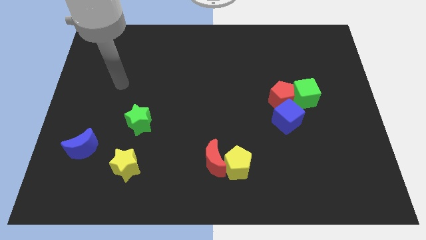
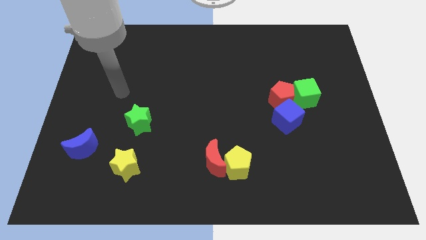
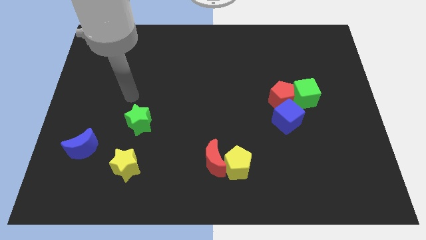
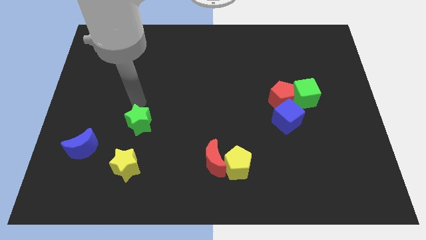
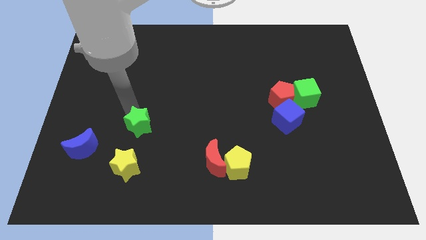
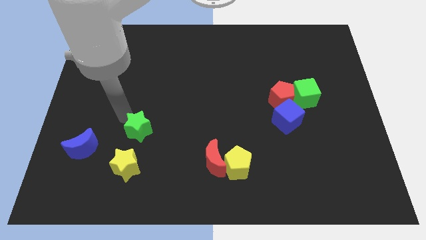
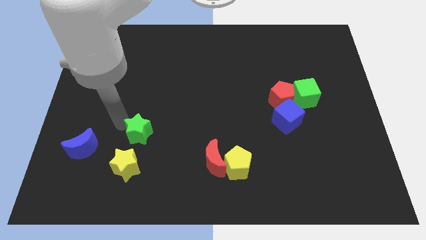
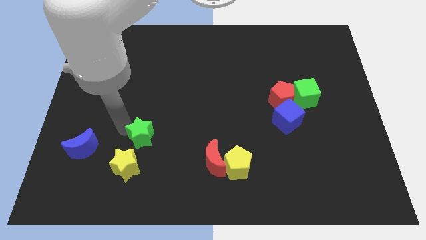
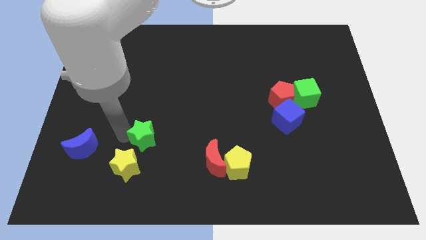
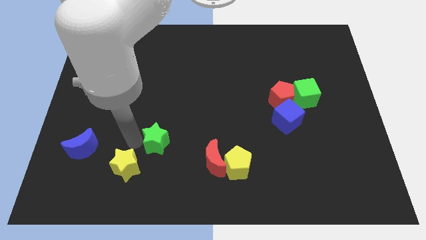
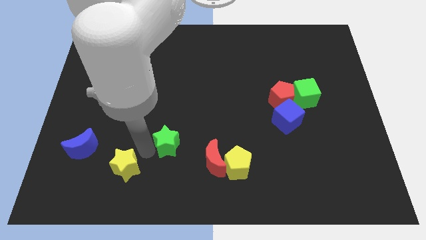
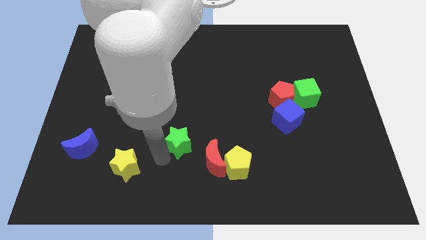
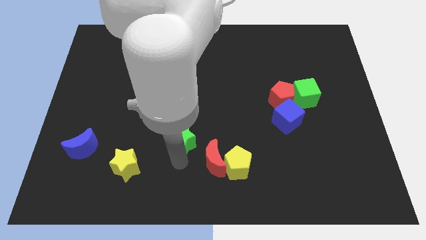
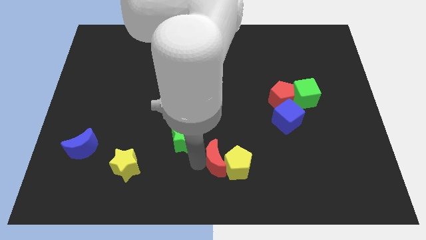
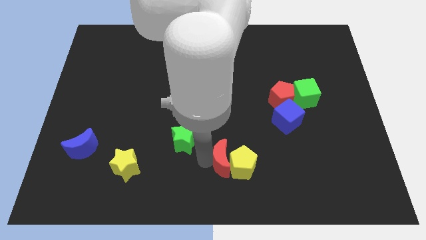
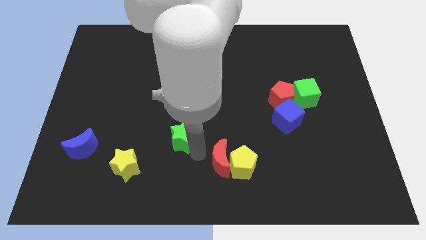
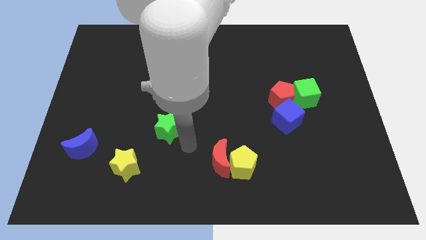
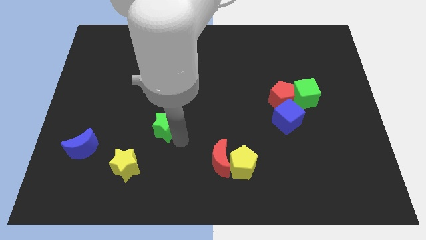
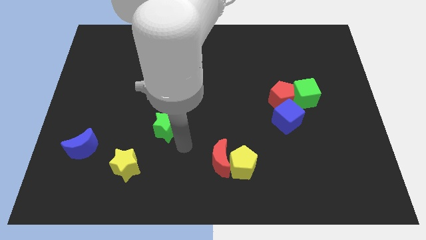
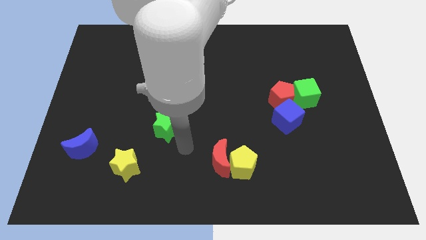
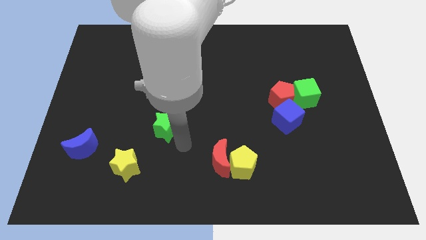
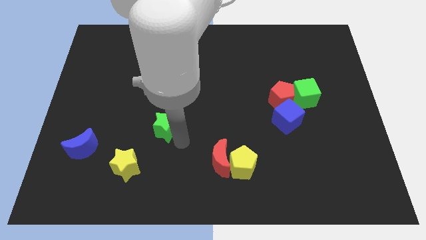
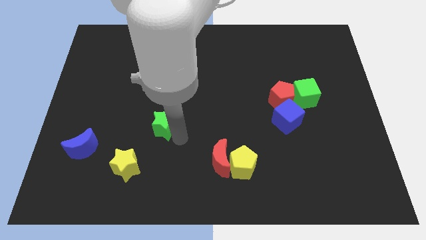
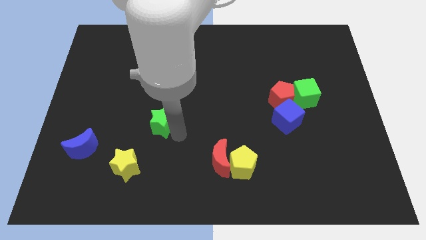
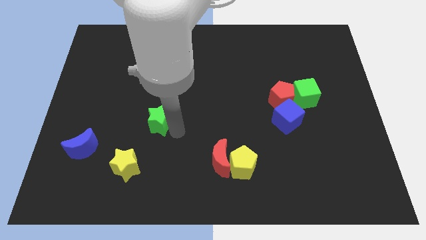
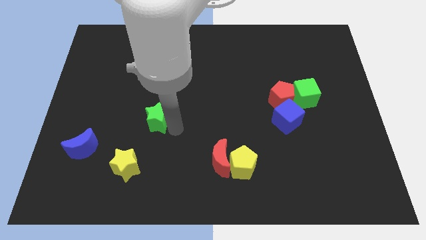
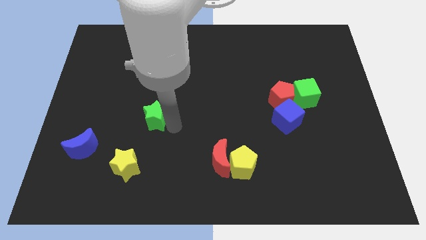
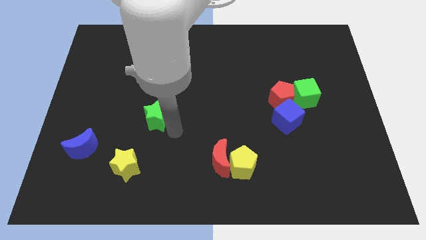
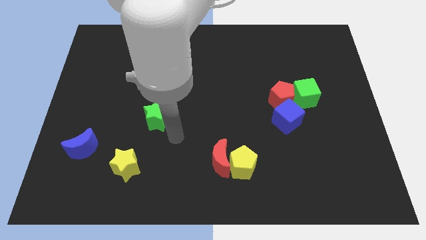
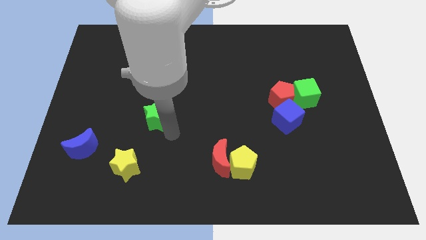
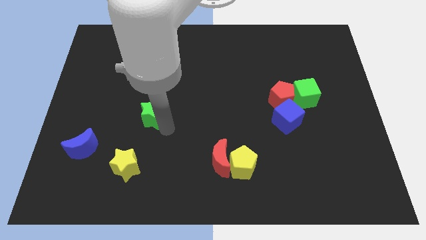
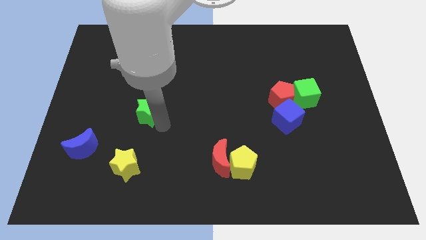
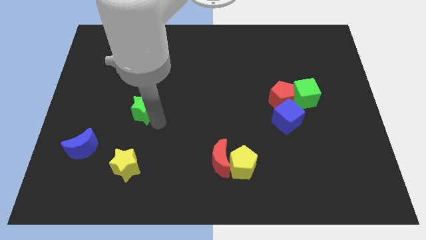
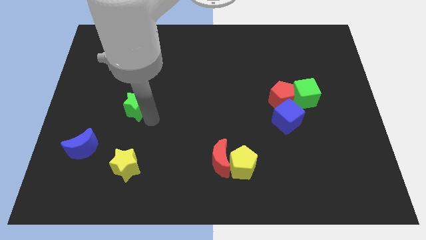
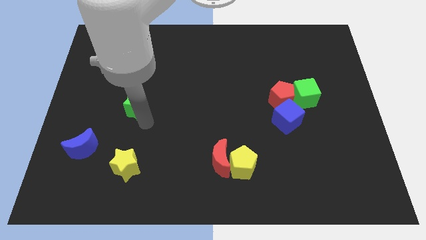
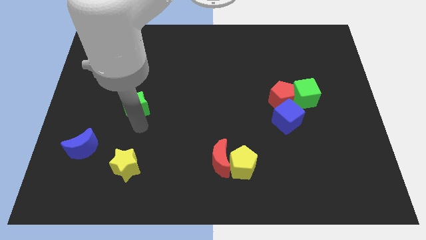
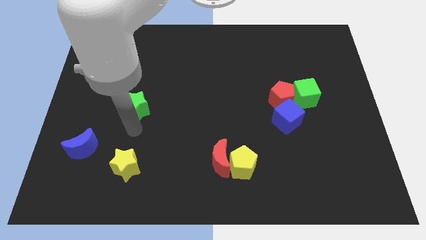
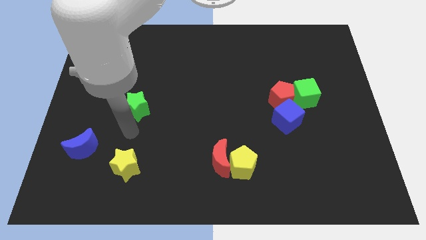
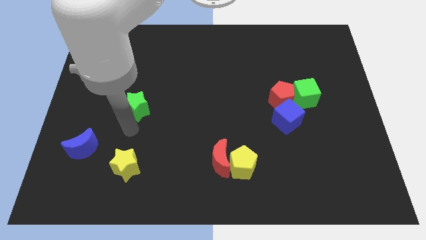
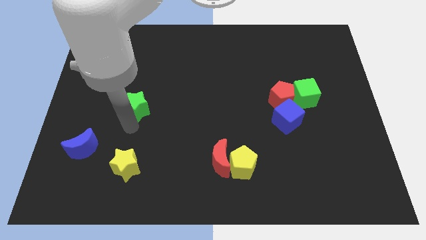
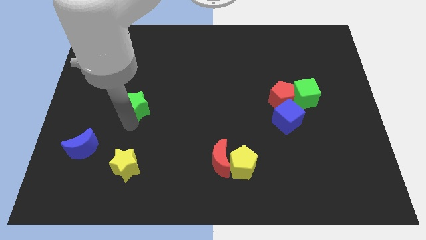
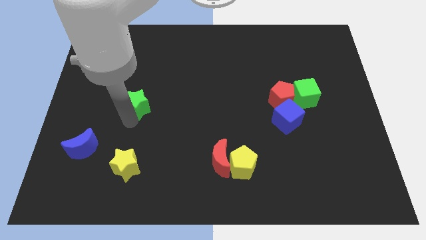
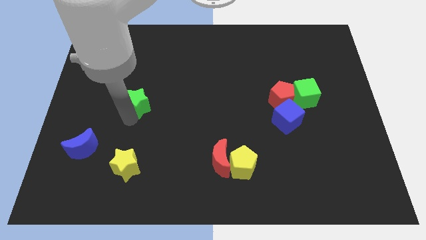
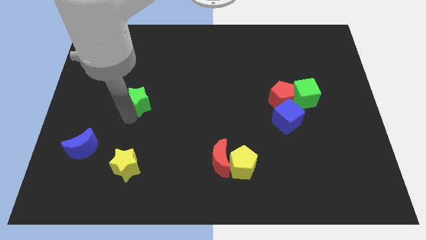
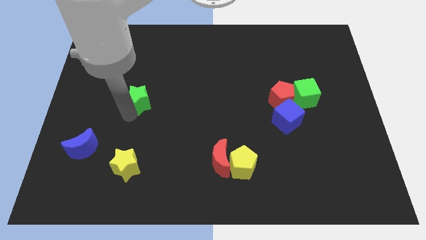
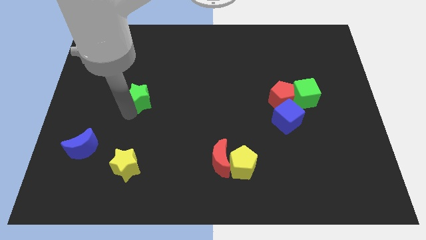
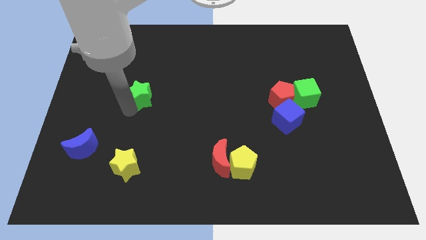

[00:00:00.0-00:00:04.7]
slightly move the green star upwards

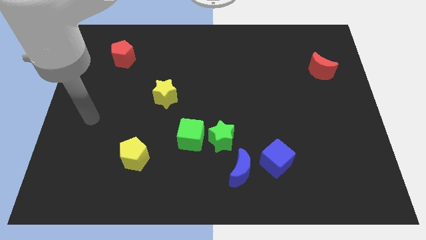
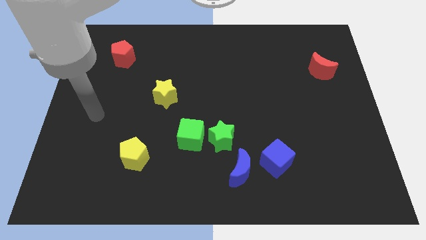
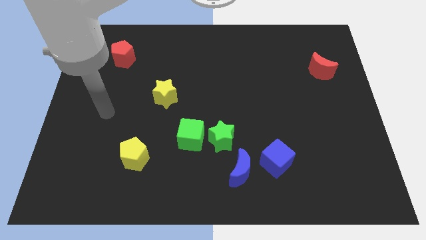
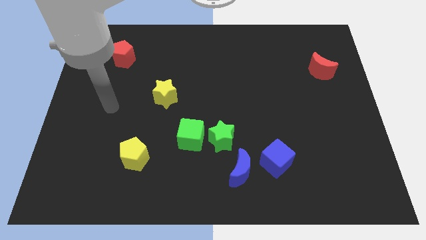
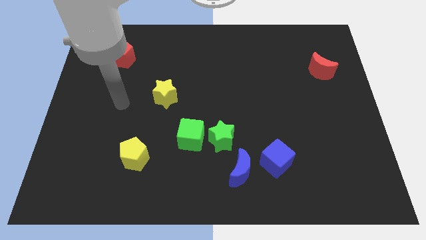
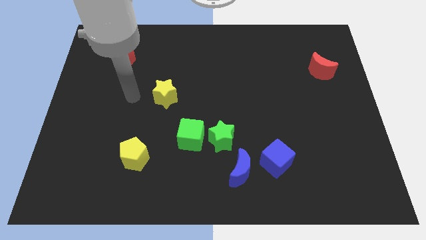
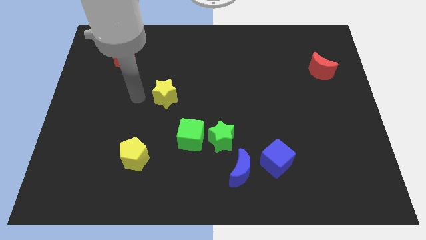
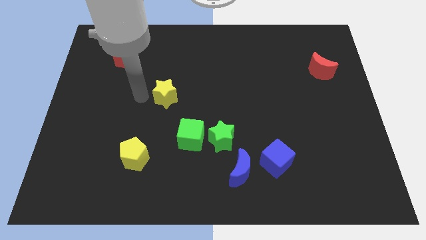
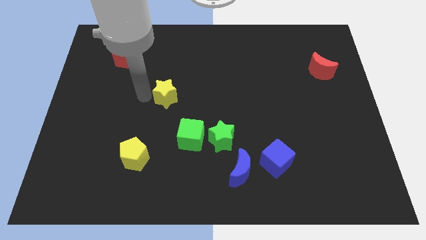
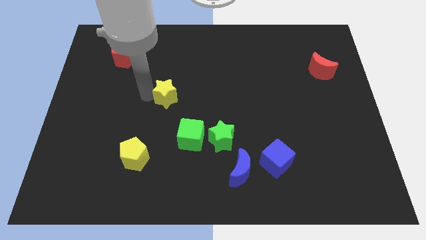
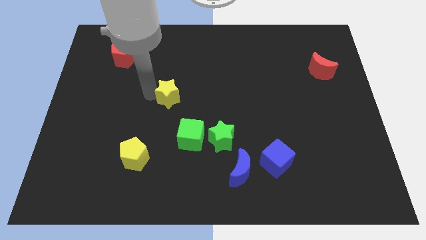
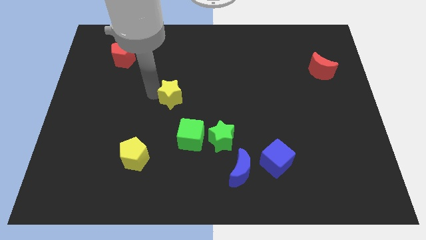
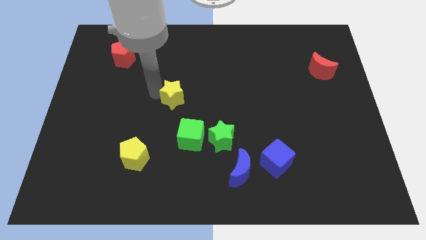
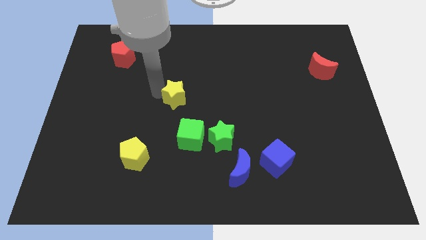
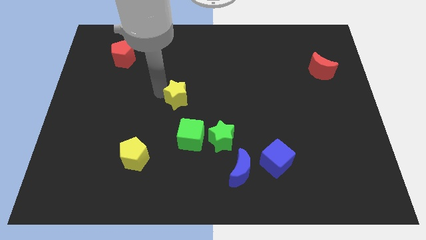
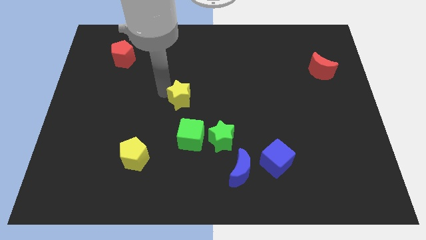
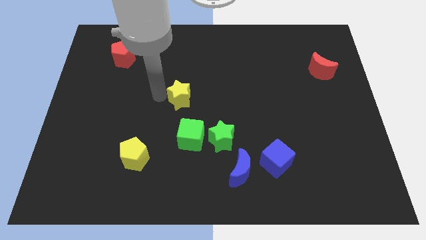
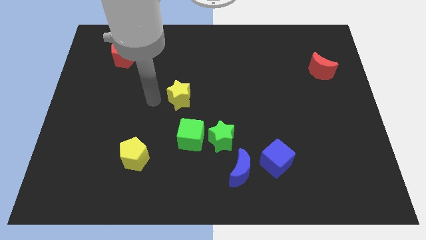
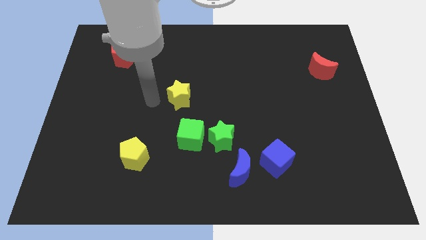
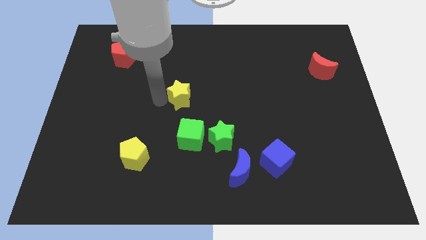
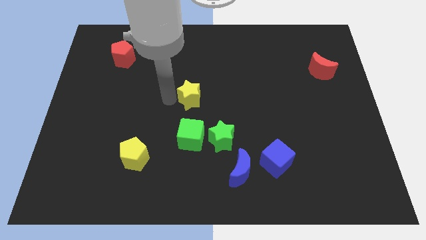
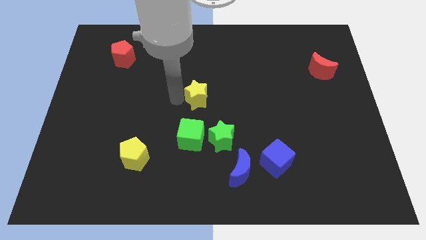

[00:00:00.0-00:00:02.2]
slide the yellow star somewhat right

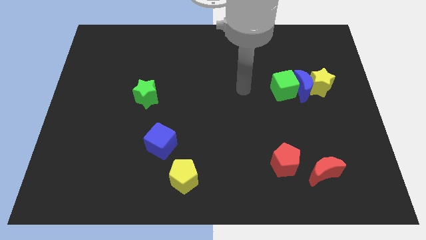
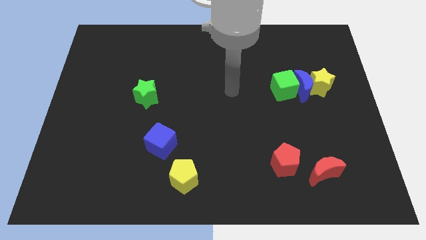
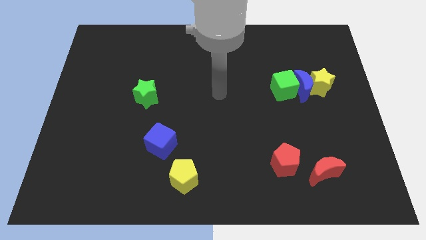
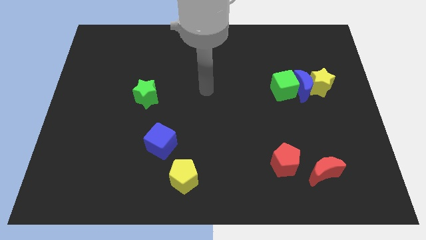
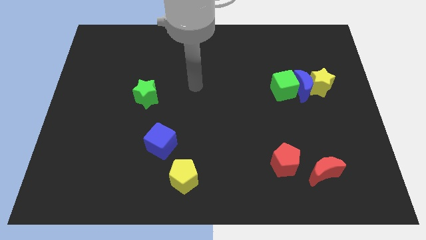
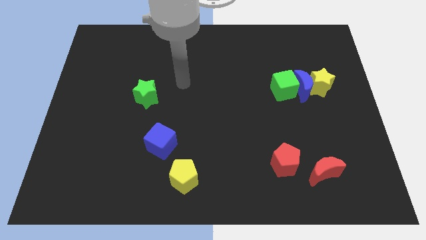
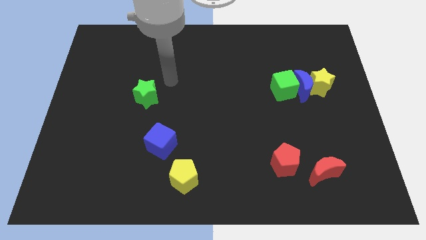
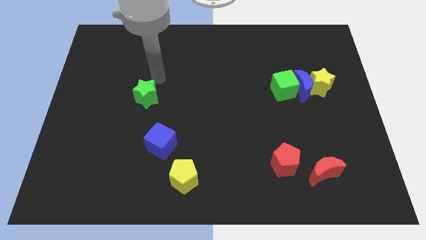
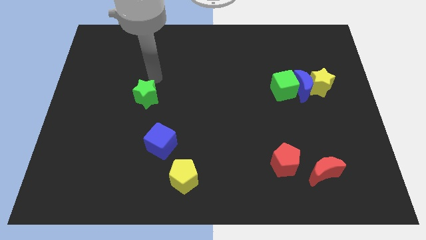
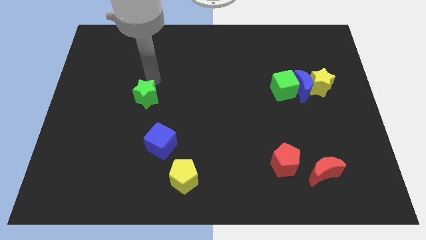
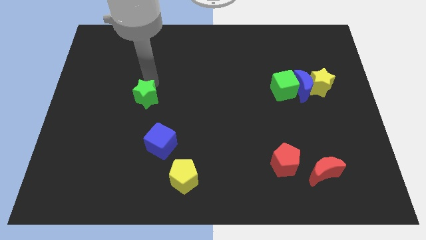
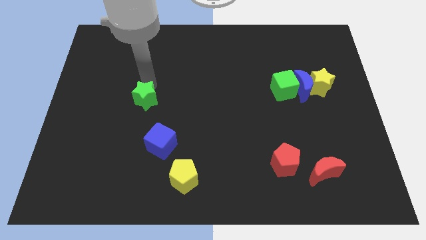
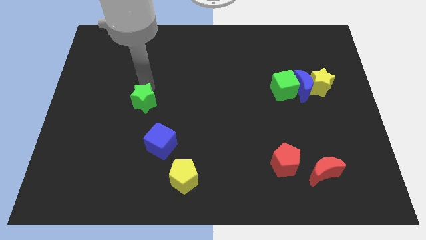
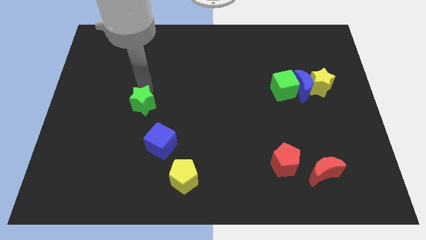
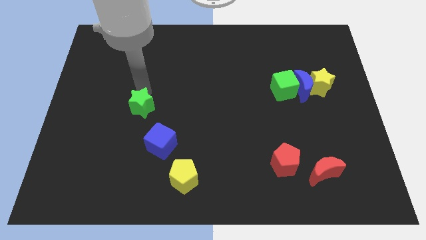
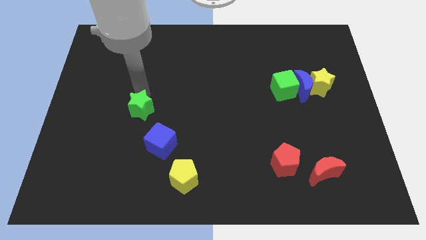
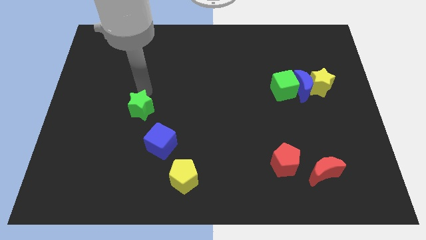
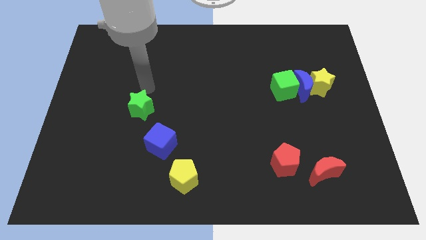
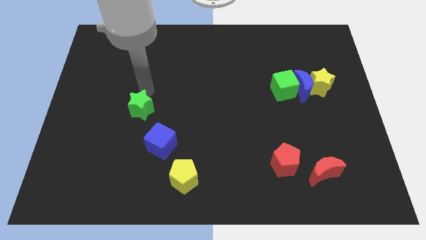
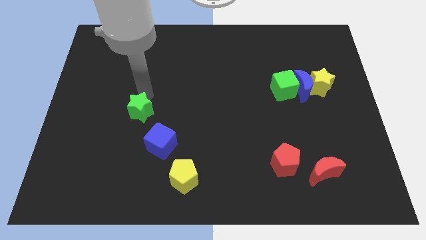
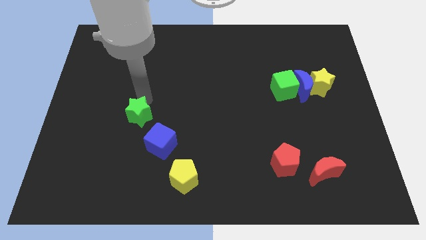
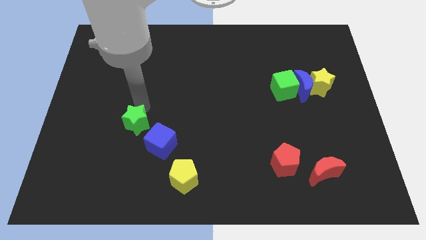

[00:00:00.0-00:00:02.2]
slightly slide the green star down
